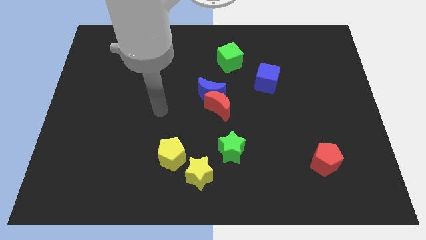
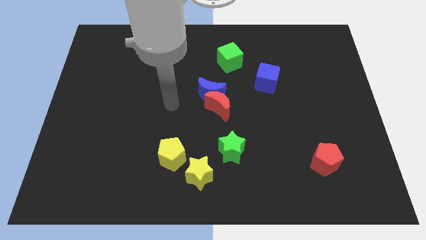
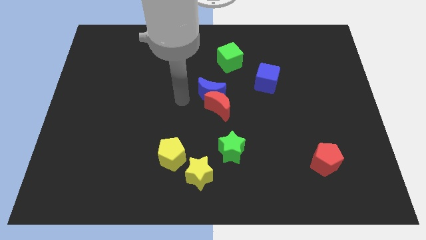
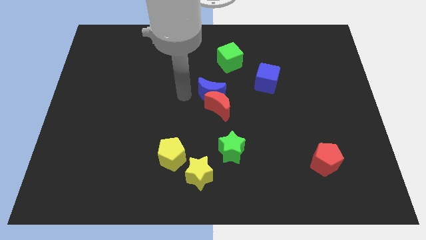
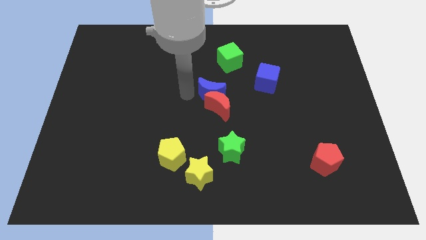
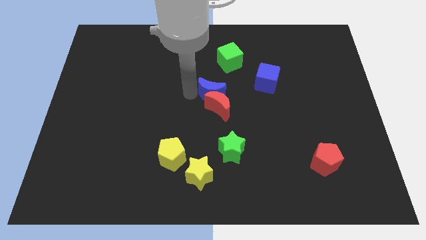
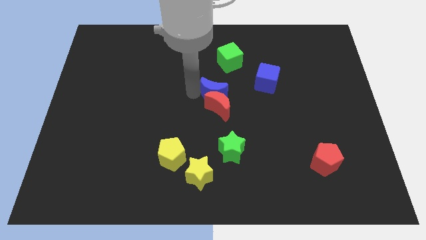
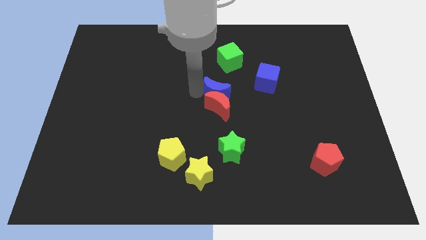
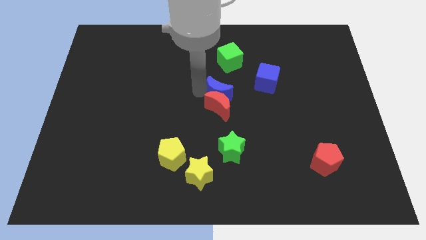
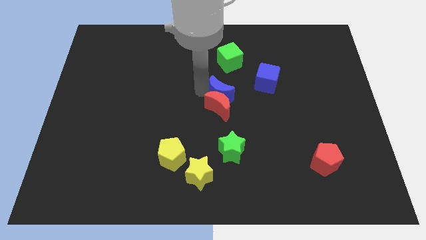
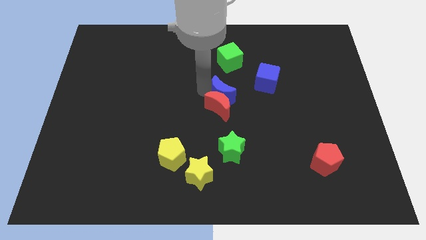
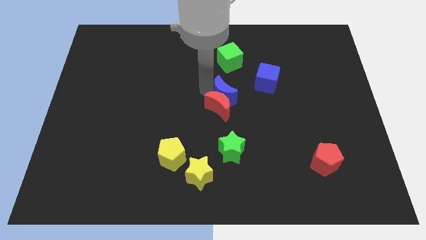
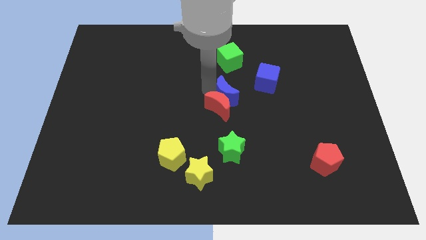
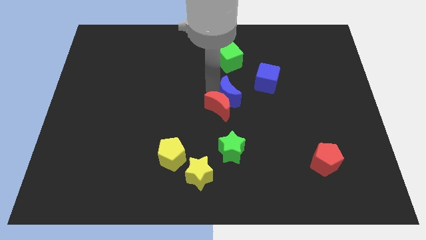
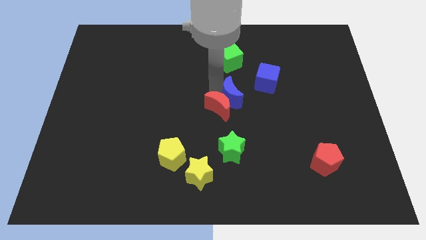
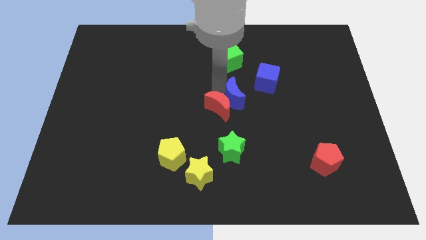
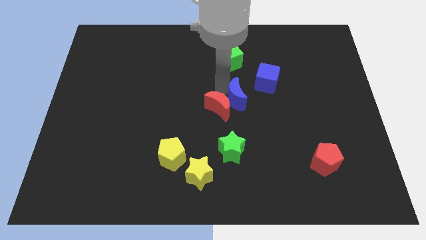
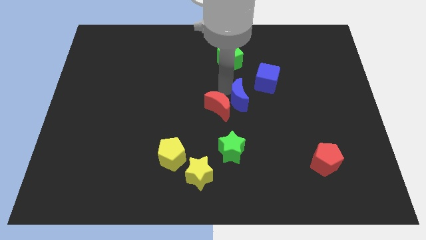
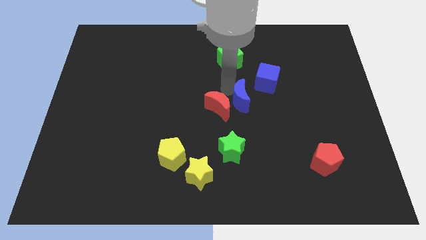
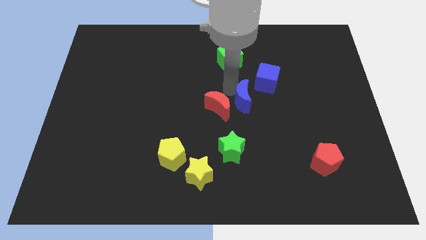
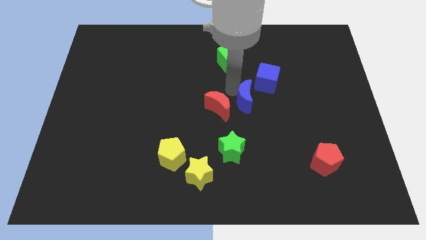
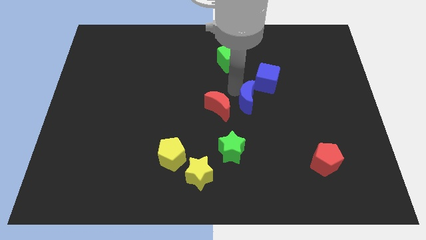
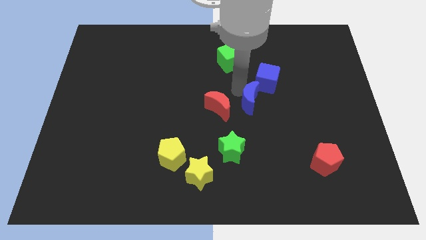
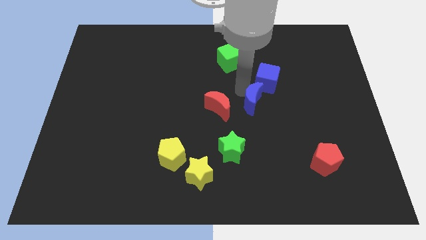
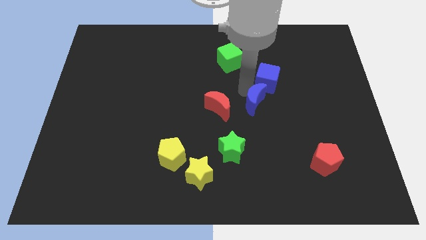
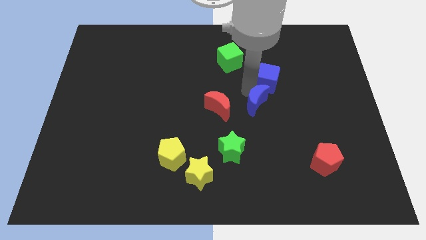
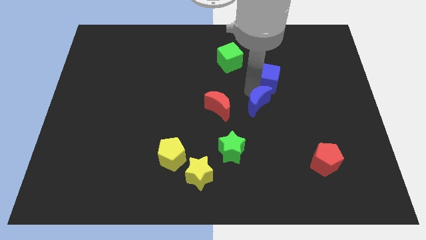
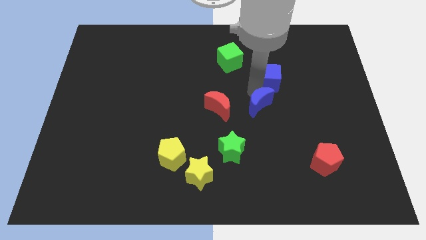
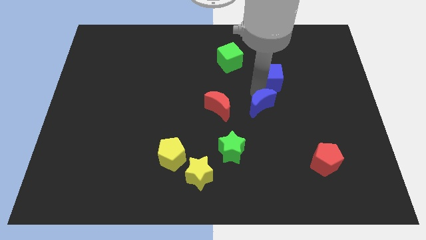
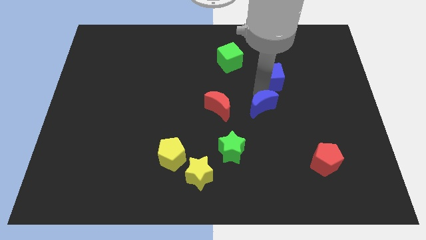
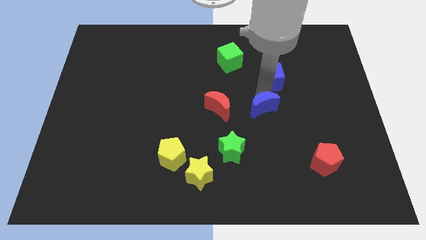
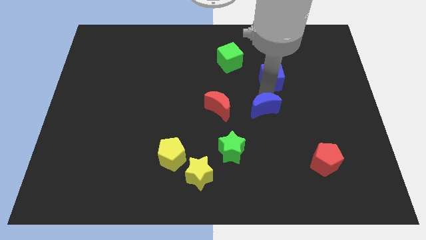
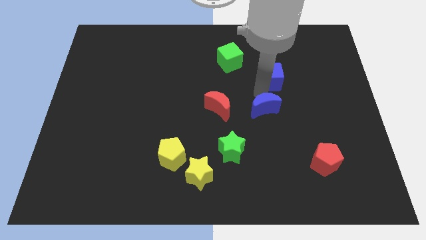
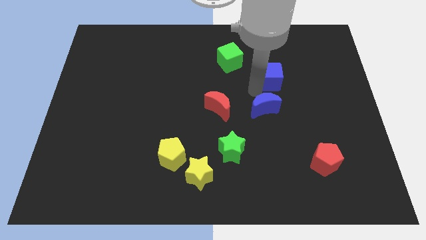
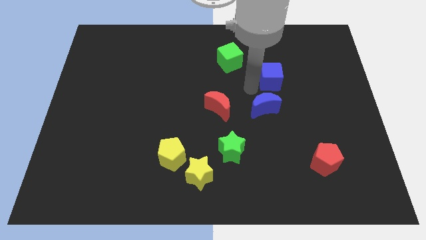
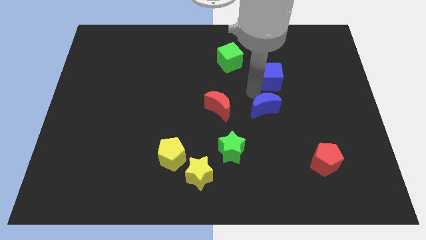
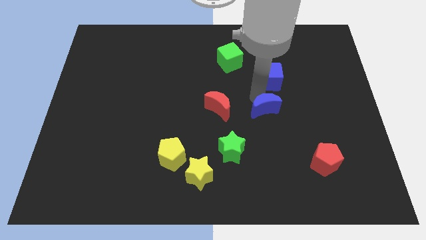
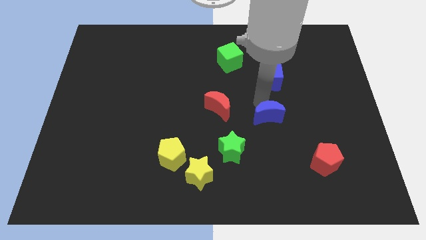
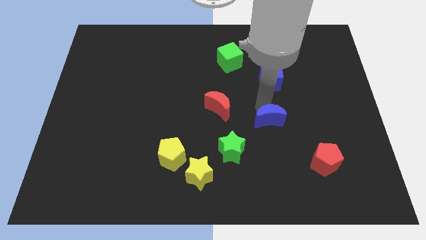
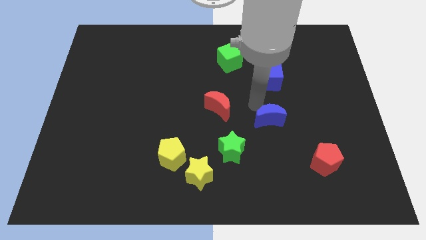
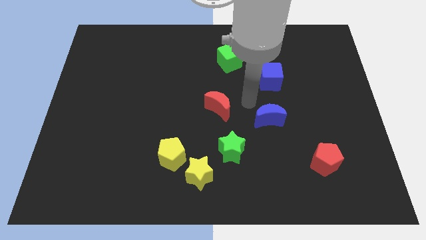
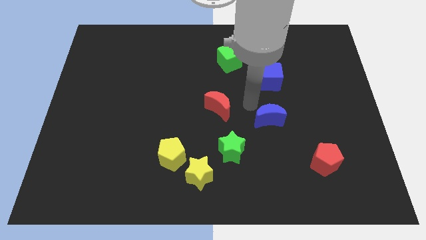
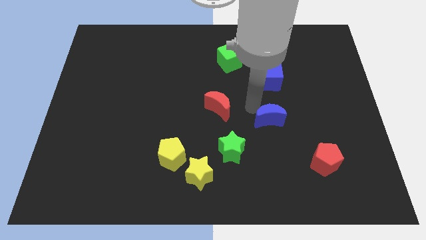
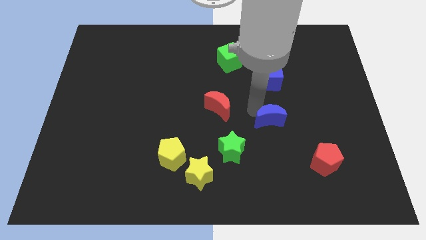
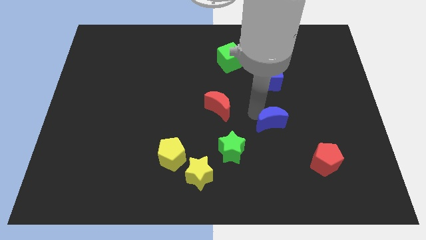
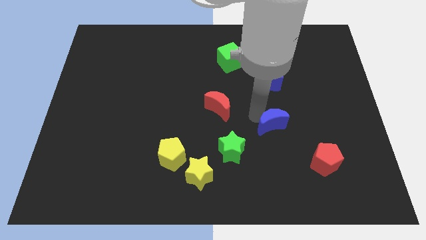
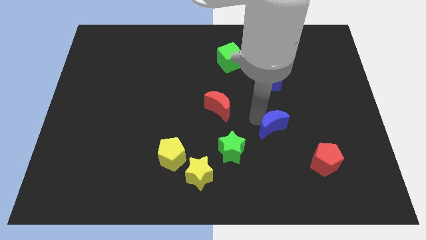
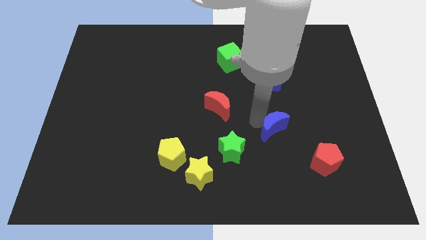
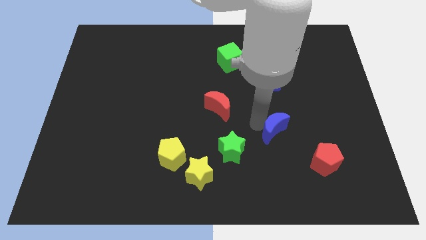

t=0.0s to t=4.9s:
slide the blue moon to the top left side of the red pentagon

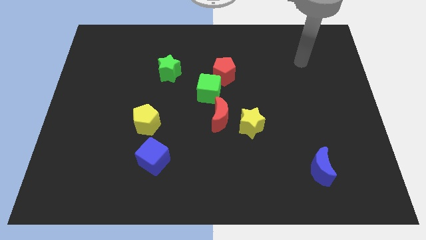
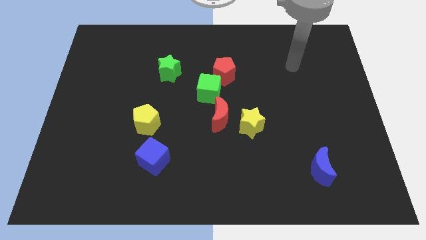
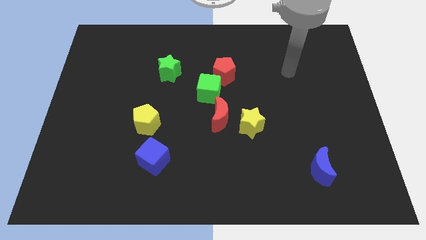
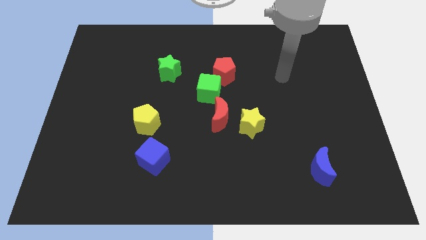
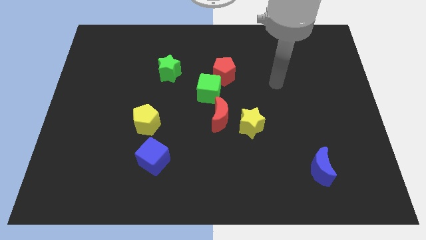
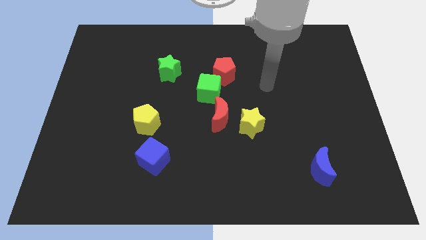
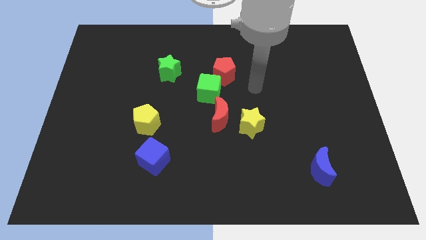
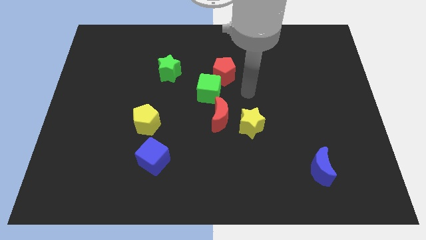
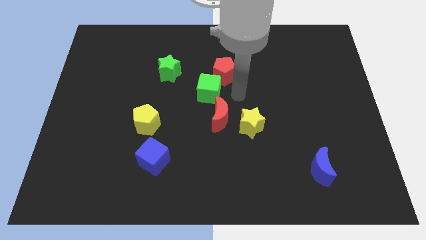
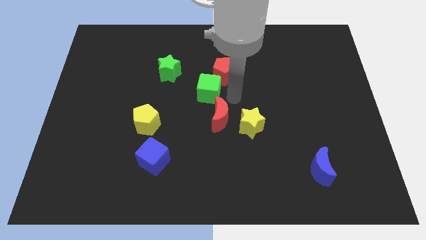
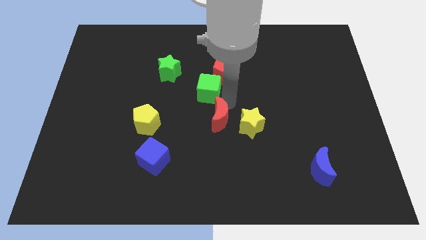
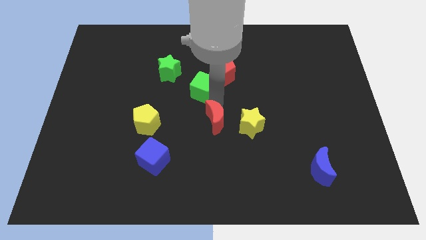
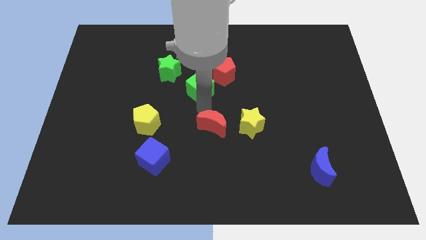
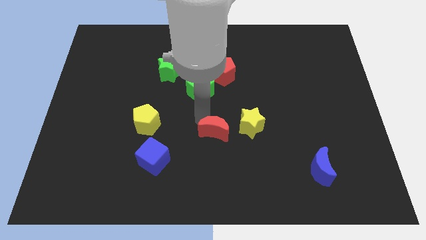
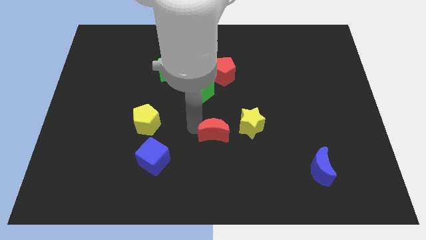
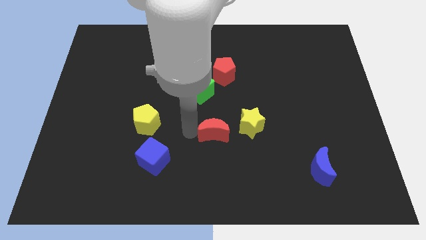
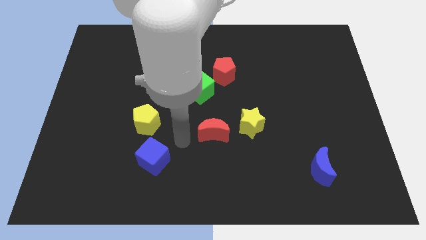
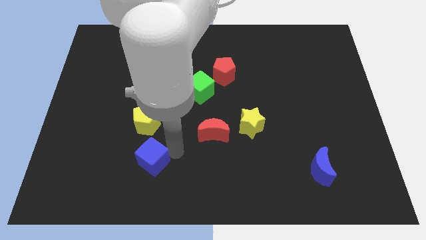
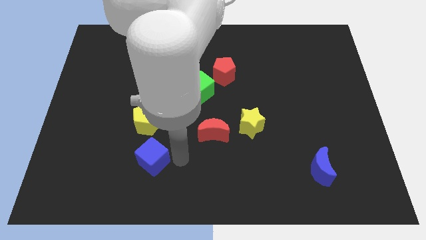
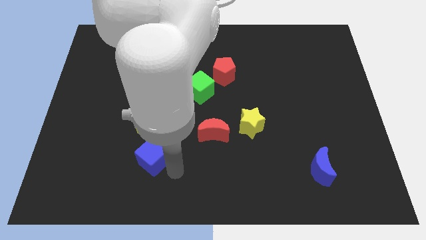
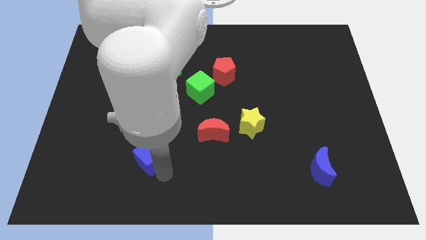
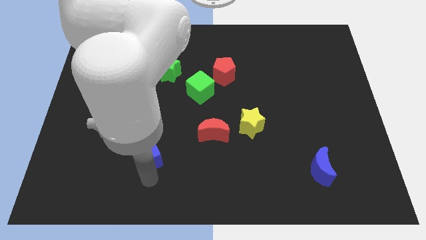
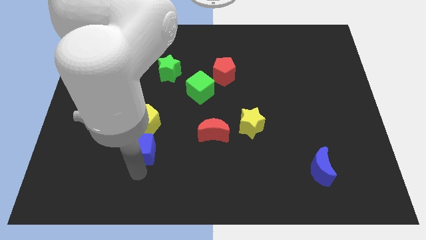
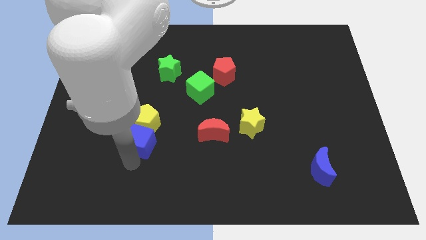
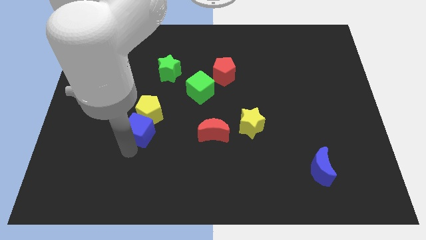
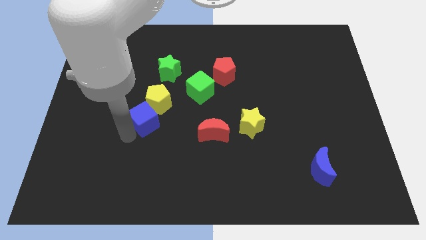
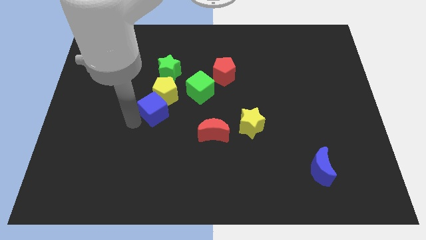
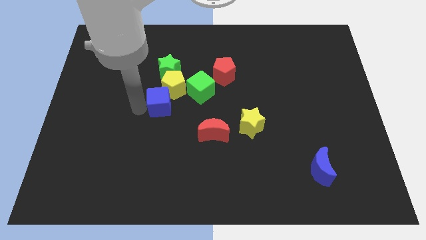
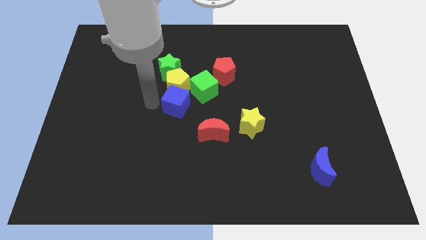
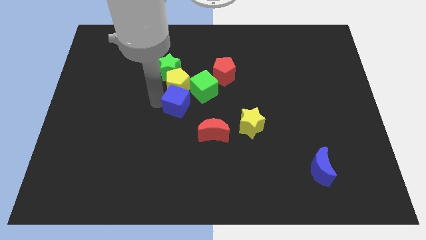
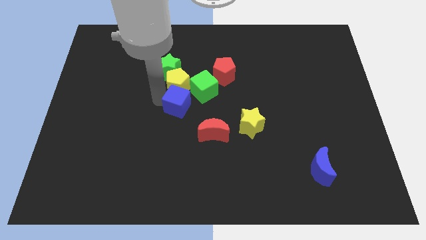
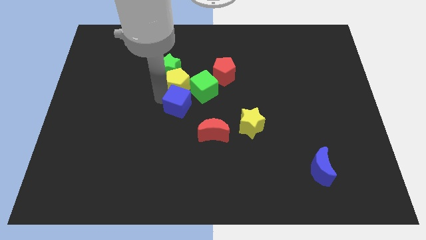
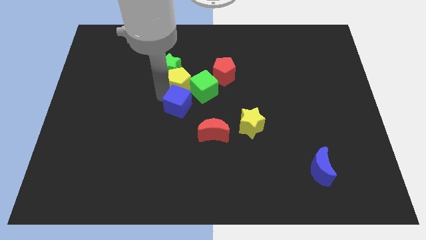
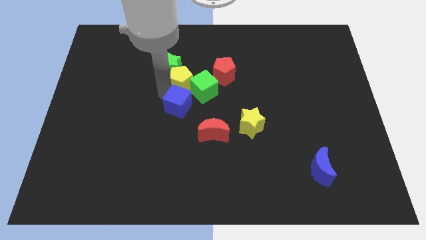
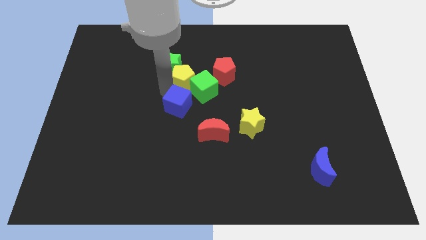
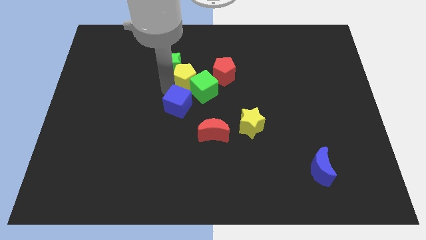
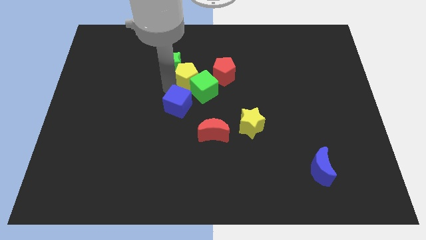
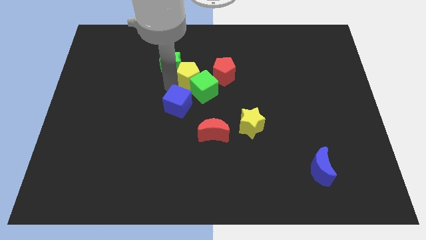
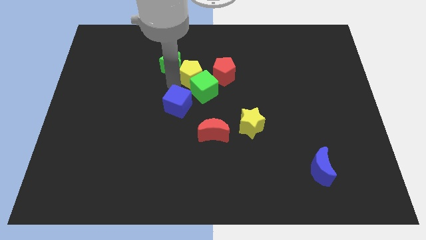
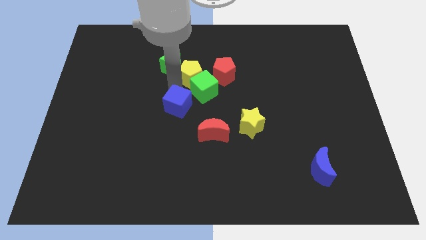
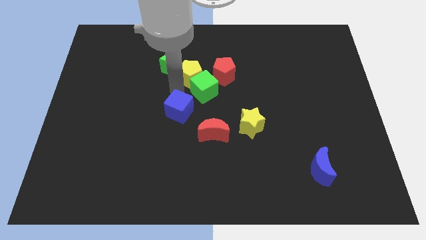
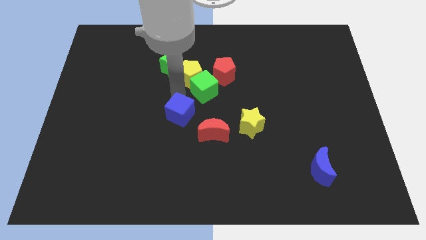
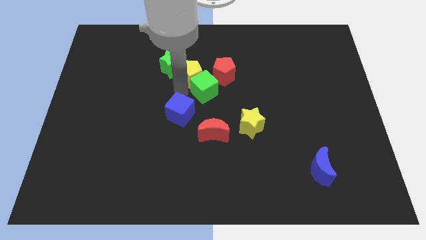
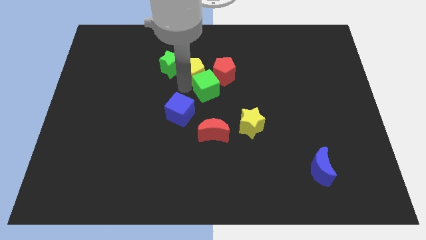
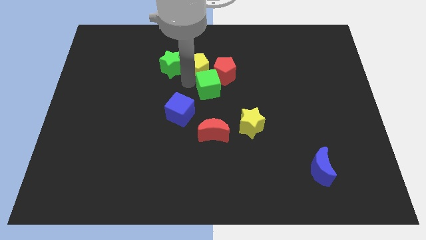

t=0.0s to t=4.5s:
move the yellow pentagon diagonally up and to the left of the red pentagon
